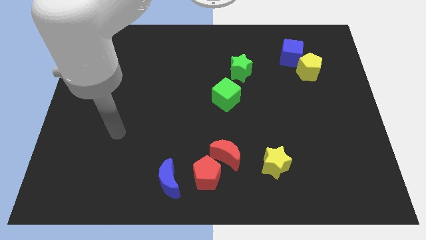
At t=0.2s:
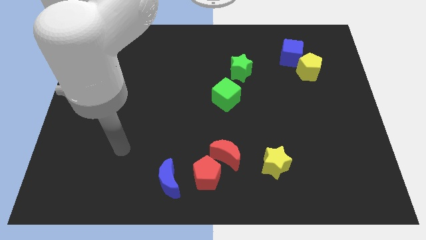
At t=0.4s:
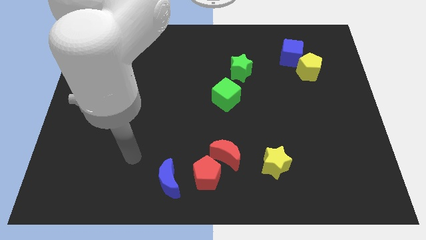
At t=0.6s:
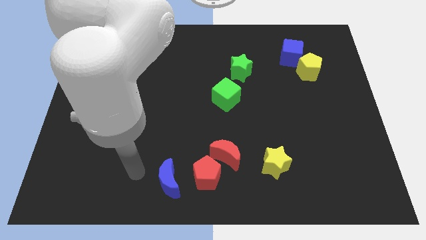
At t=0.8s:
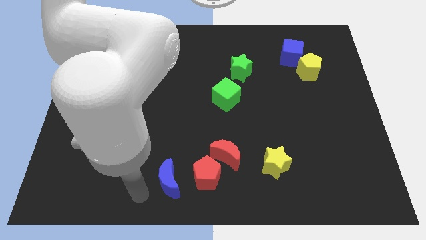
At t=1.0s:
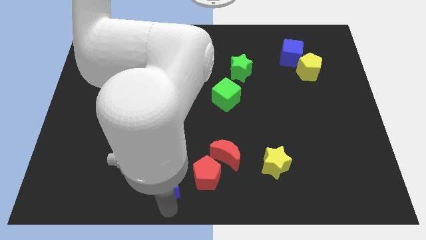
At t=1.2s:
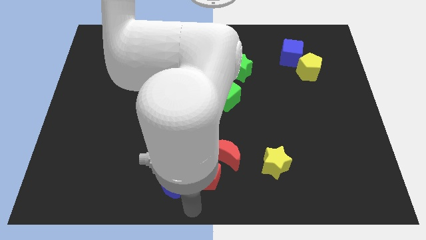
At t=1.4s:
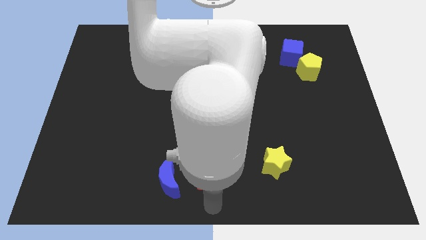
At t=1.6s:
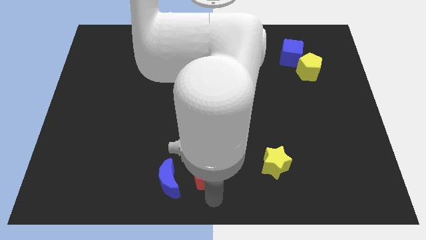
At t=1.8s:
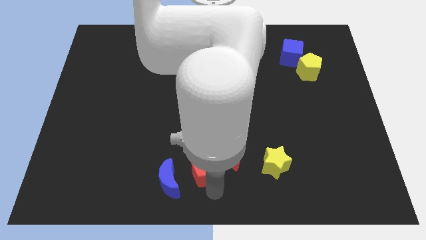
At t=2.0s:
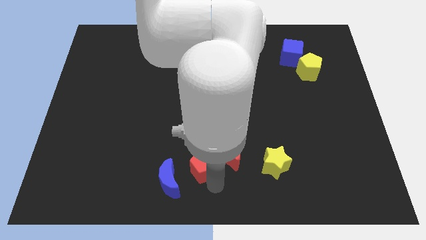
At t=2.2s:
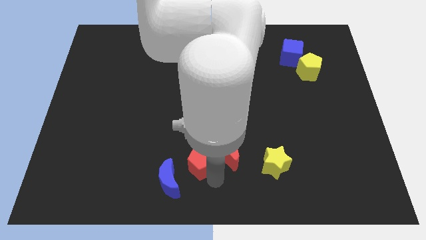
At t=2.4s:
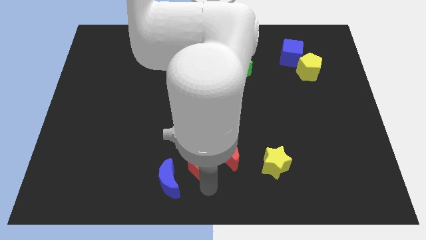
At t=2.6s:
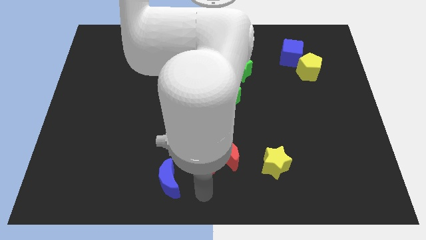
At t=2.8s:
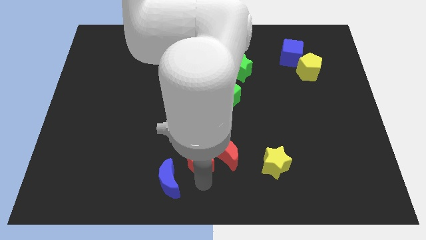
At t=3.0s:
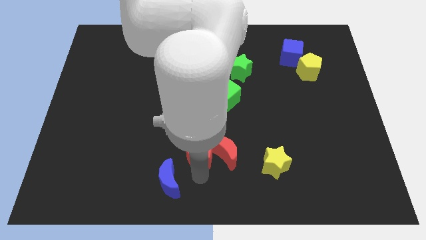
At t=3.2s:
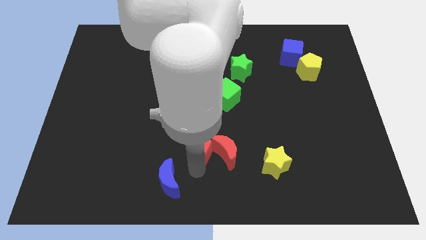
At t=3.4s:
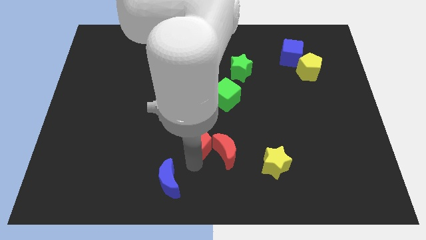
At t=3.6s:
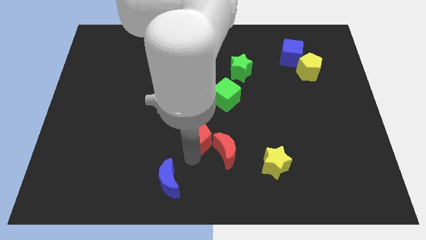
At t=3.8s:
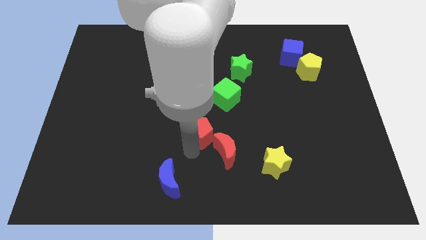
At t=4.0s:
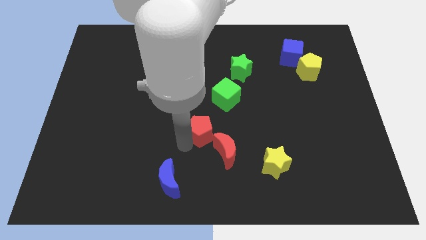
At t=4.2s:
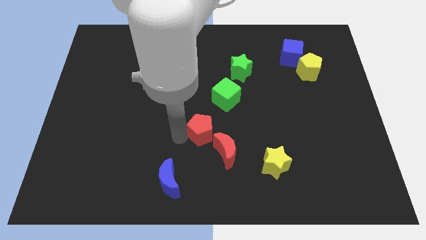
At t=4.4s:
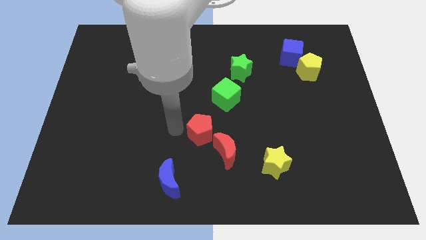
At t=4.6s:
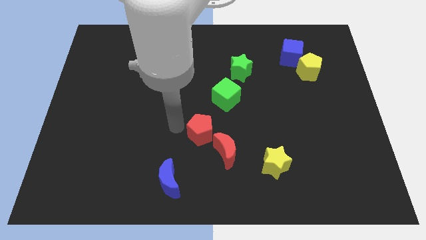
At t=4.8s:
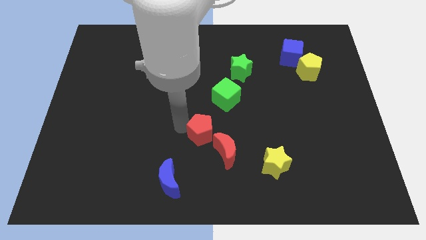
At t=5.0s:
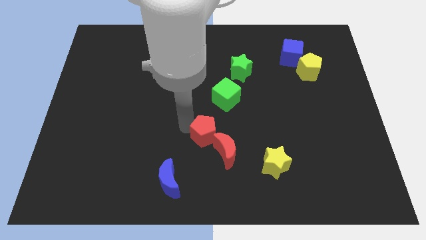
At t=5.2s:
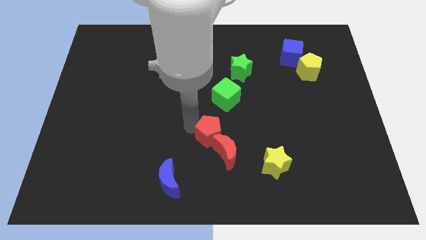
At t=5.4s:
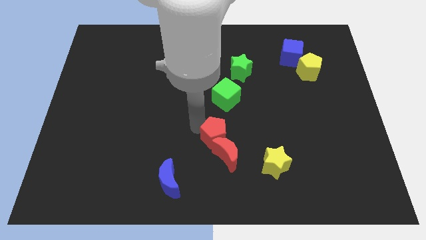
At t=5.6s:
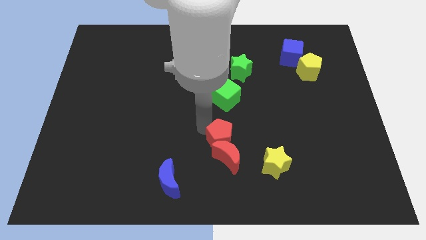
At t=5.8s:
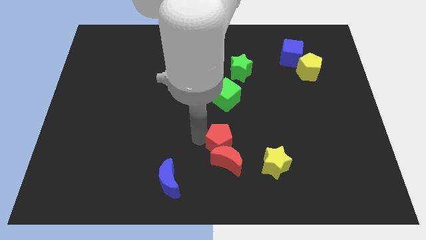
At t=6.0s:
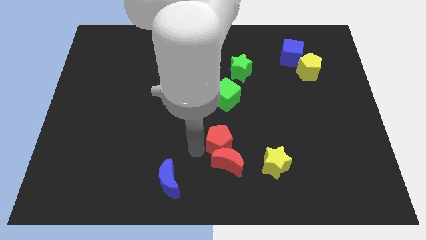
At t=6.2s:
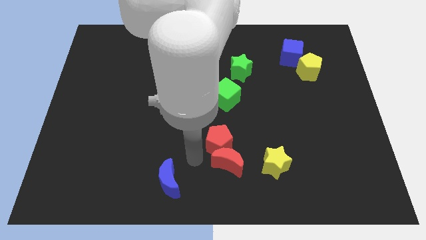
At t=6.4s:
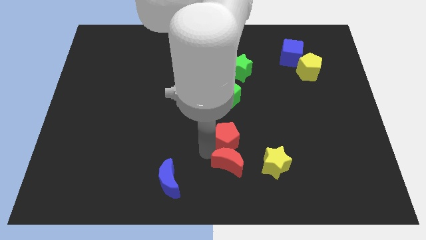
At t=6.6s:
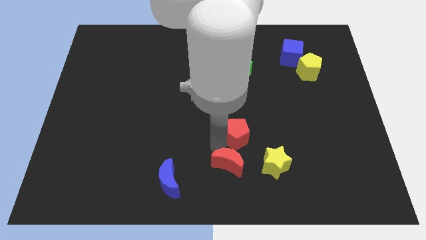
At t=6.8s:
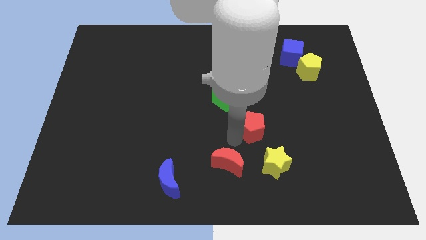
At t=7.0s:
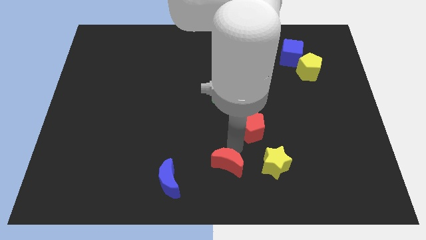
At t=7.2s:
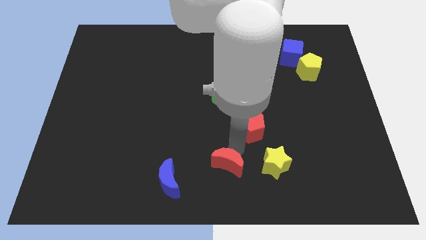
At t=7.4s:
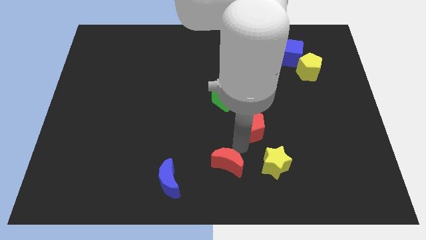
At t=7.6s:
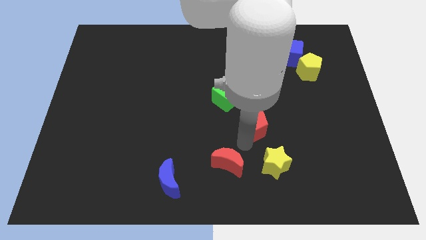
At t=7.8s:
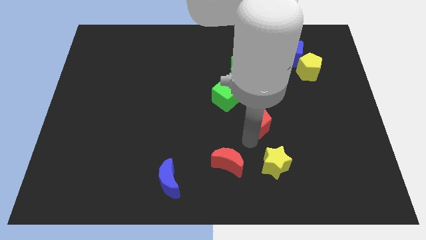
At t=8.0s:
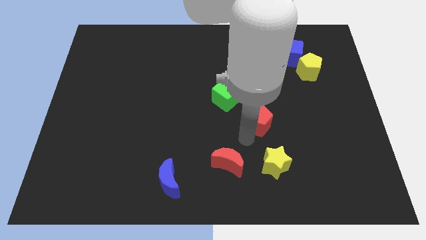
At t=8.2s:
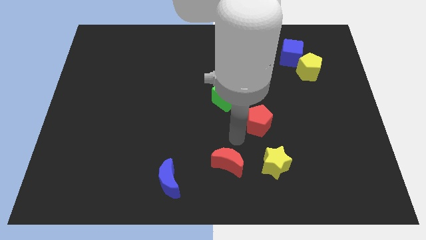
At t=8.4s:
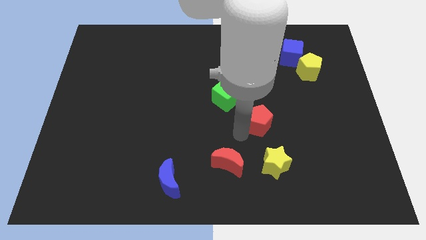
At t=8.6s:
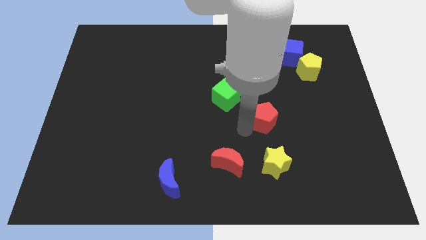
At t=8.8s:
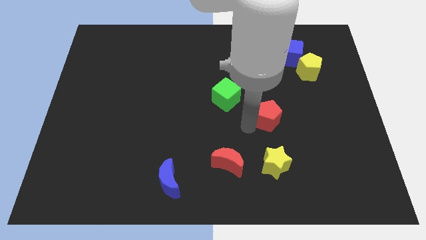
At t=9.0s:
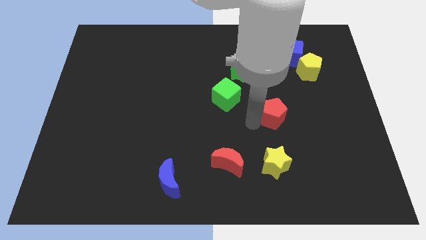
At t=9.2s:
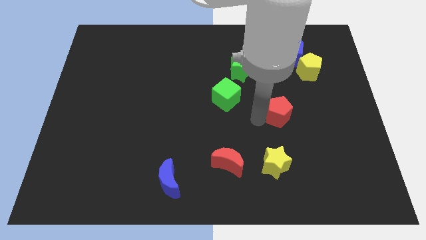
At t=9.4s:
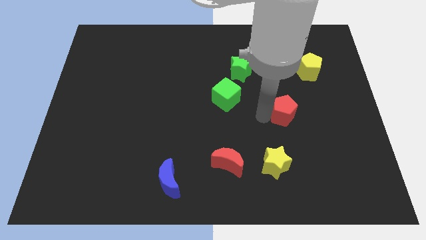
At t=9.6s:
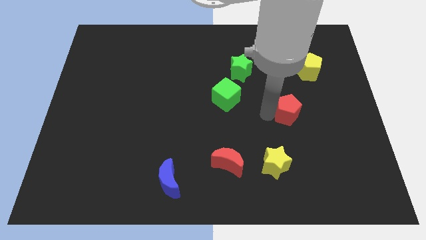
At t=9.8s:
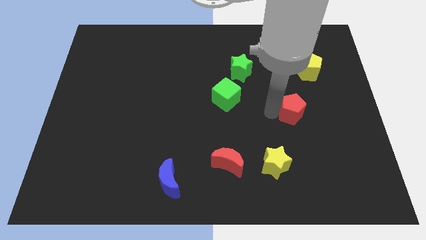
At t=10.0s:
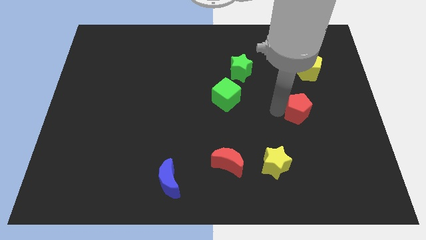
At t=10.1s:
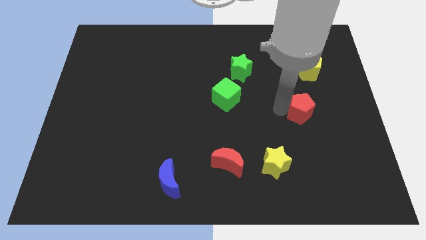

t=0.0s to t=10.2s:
push the red pentagon to the bottom side of the yellow pentagon

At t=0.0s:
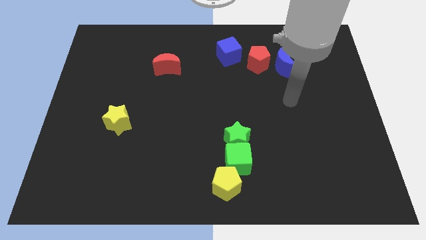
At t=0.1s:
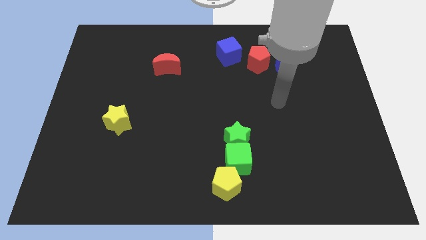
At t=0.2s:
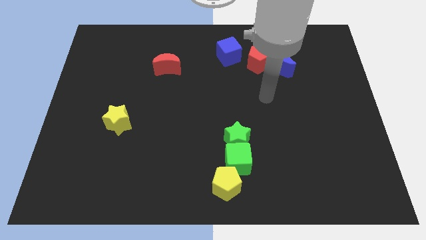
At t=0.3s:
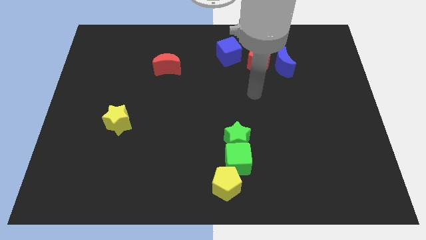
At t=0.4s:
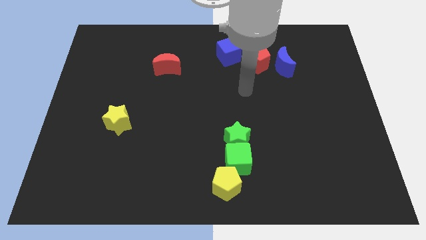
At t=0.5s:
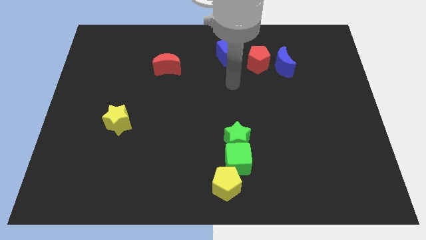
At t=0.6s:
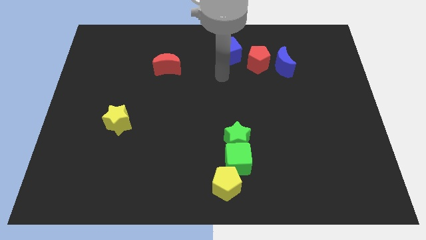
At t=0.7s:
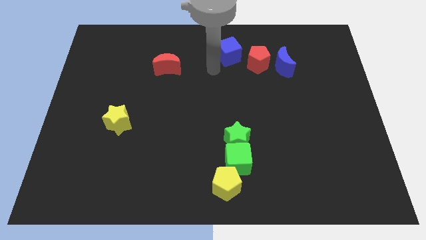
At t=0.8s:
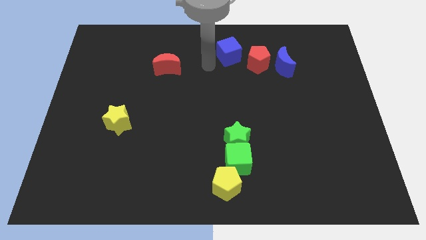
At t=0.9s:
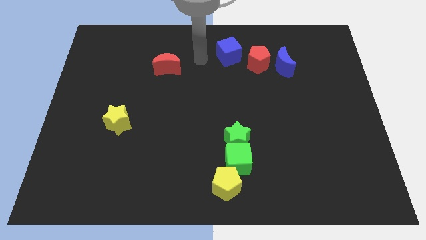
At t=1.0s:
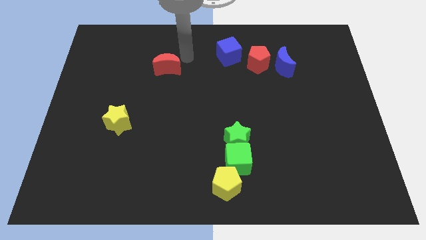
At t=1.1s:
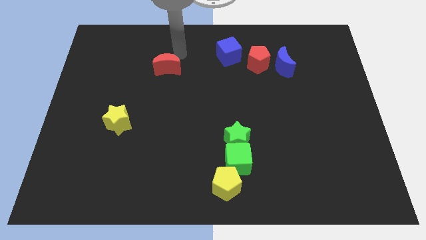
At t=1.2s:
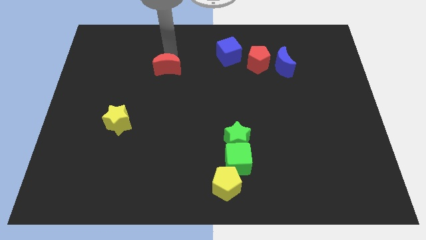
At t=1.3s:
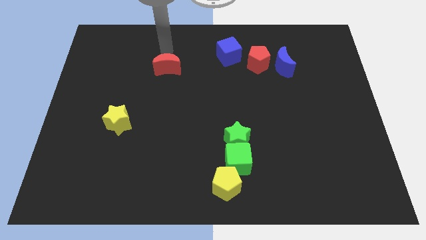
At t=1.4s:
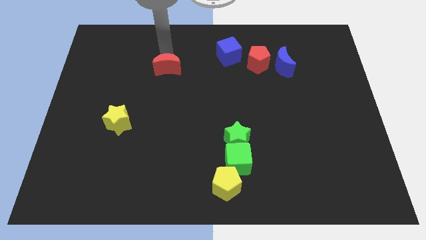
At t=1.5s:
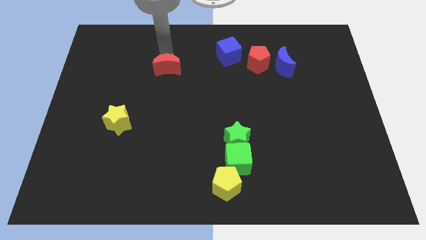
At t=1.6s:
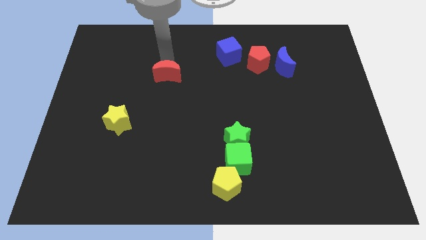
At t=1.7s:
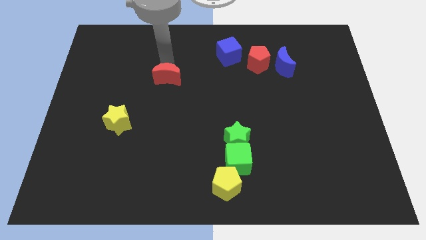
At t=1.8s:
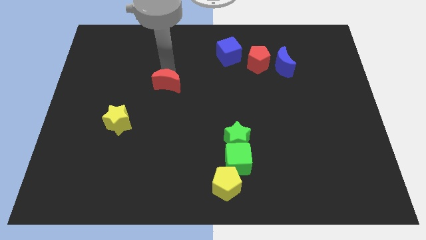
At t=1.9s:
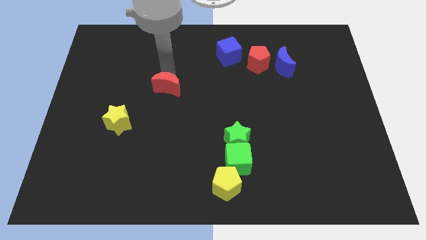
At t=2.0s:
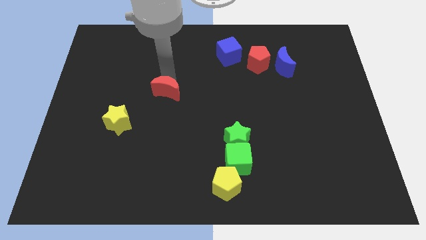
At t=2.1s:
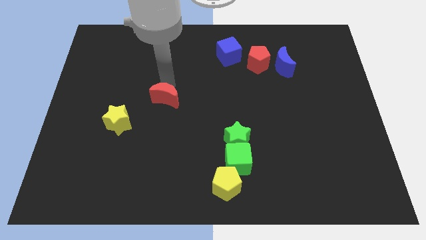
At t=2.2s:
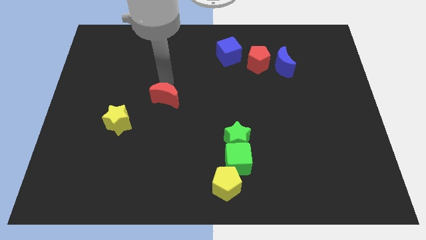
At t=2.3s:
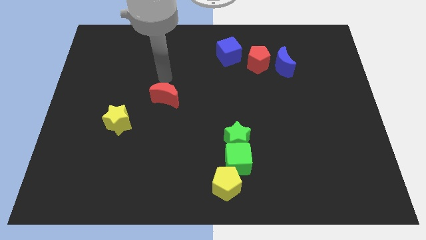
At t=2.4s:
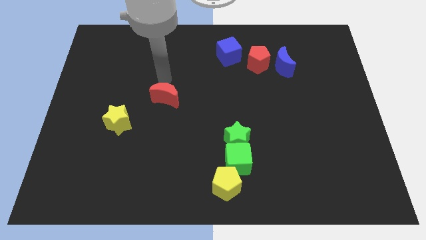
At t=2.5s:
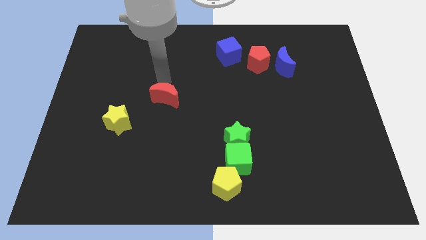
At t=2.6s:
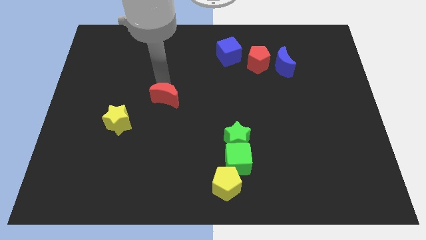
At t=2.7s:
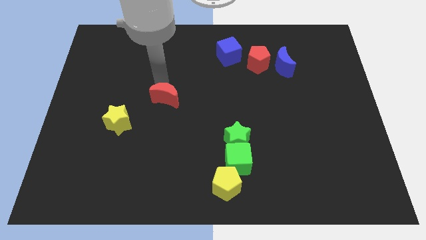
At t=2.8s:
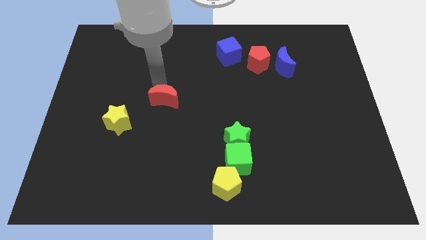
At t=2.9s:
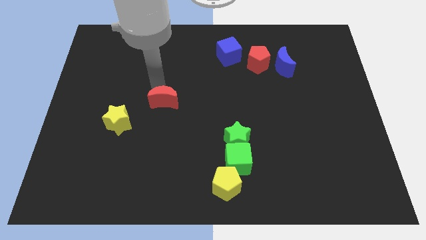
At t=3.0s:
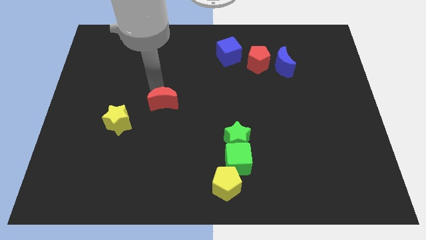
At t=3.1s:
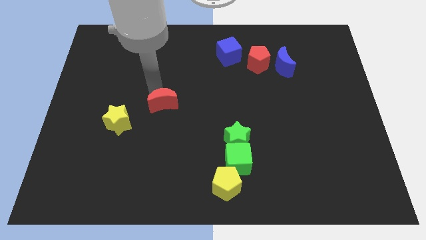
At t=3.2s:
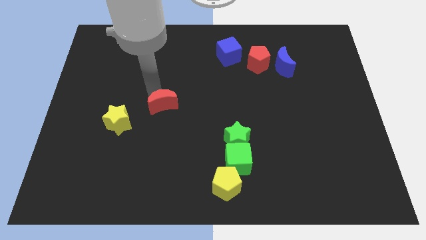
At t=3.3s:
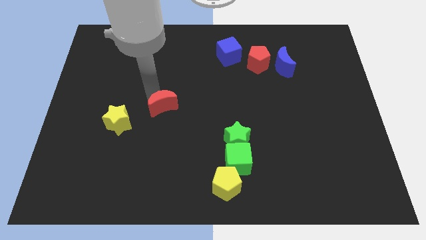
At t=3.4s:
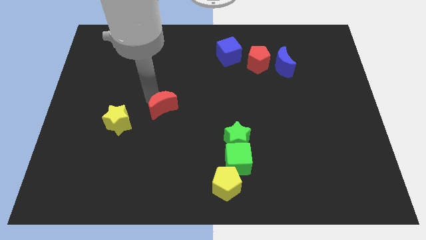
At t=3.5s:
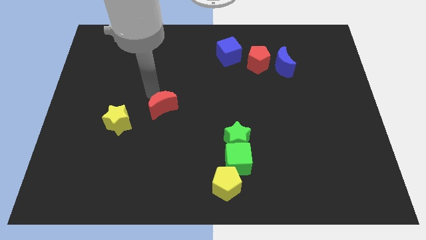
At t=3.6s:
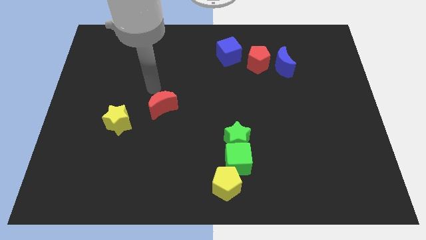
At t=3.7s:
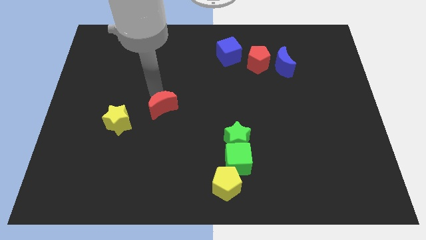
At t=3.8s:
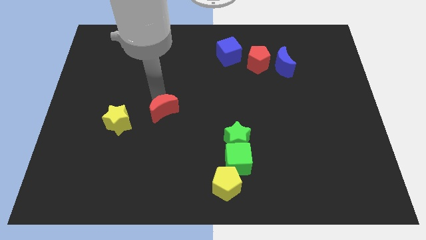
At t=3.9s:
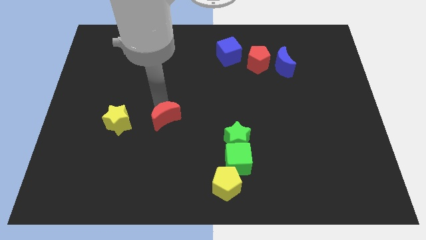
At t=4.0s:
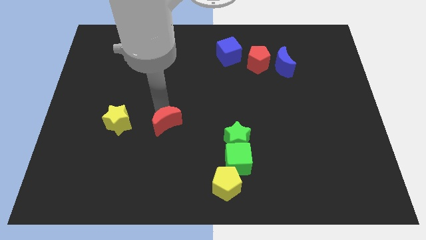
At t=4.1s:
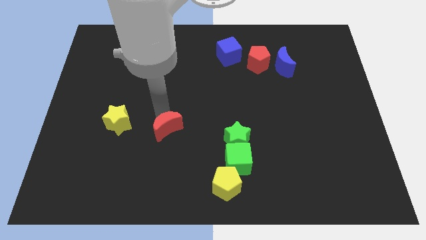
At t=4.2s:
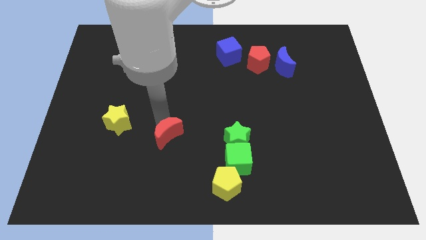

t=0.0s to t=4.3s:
push the red moon to the left side of the green star
